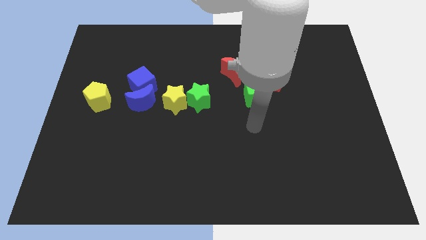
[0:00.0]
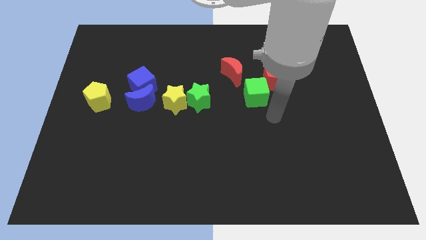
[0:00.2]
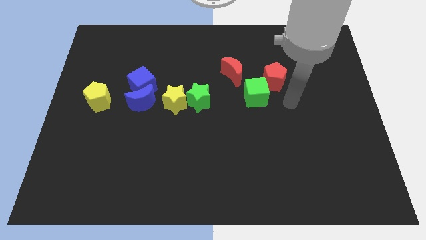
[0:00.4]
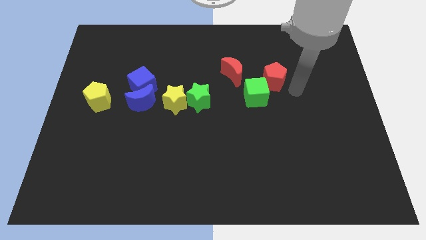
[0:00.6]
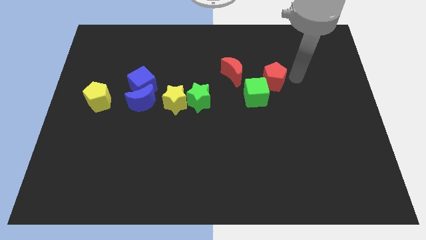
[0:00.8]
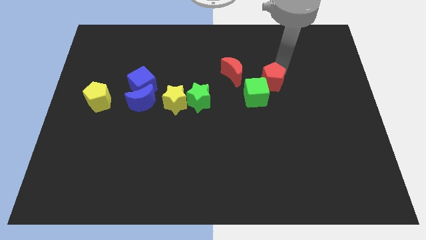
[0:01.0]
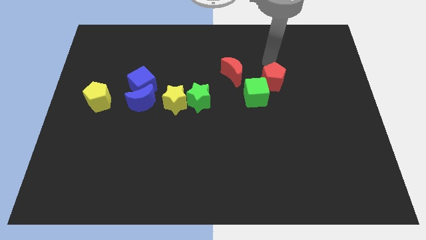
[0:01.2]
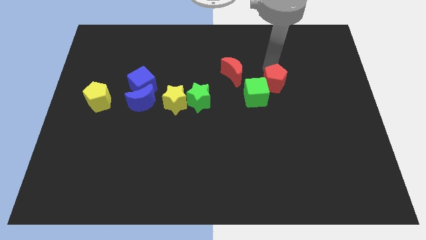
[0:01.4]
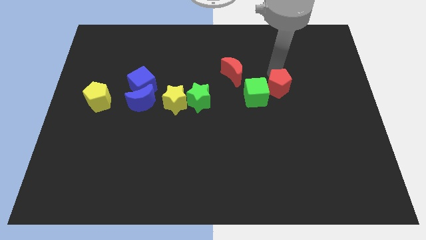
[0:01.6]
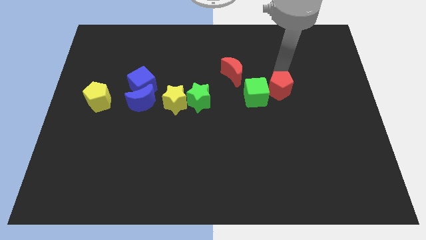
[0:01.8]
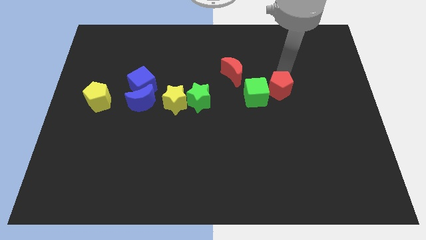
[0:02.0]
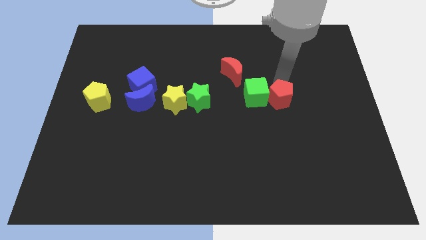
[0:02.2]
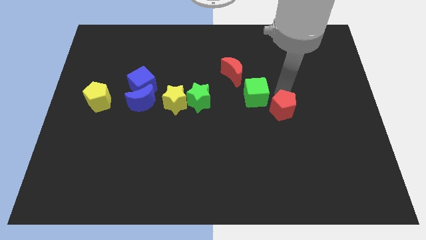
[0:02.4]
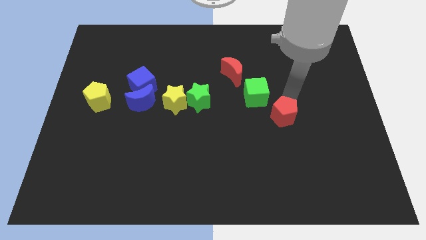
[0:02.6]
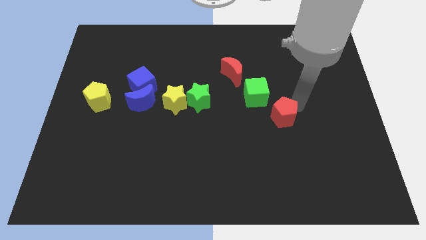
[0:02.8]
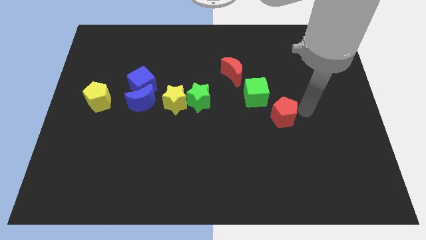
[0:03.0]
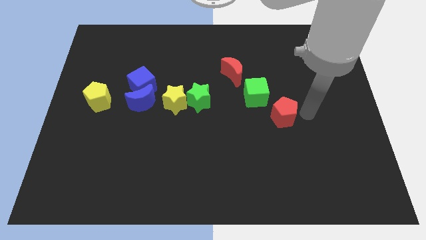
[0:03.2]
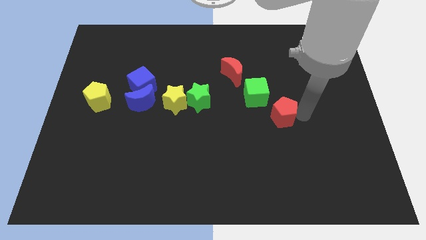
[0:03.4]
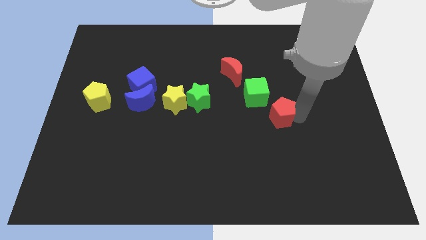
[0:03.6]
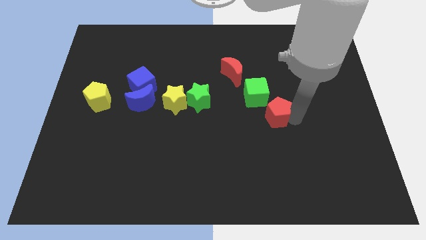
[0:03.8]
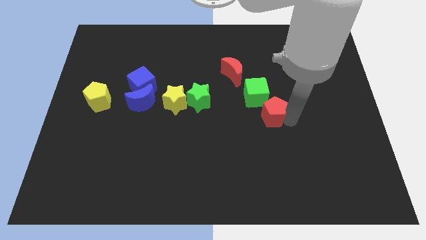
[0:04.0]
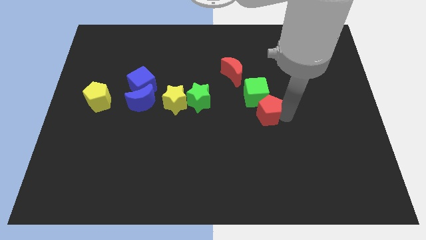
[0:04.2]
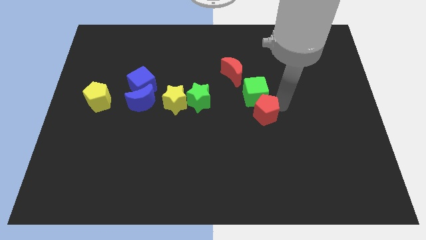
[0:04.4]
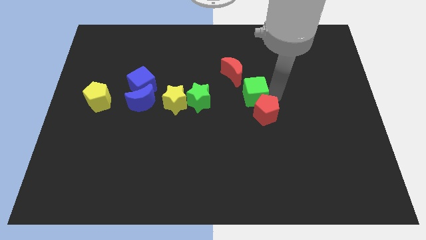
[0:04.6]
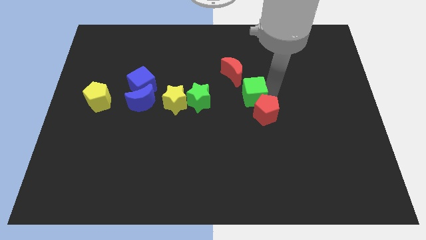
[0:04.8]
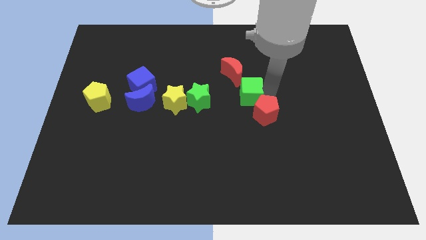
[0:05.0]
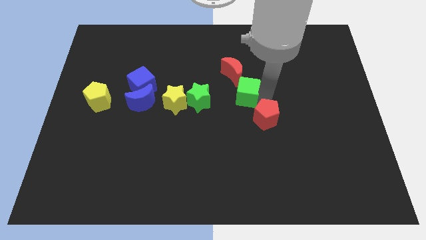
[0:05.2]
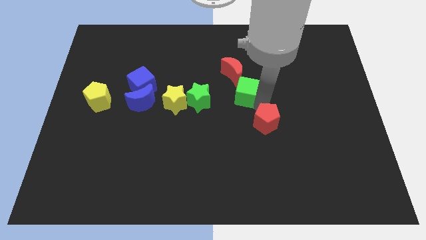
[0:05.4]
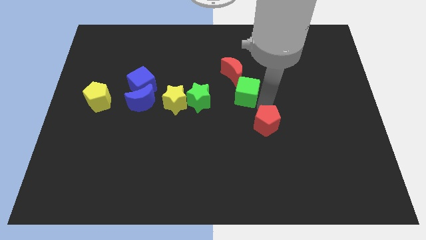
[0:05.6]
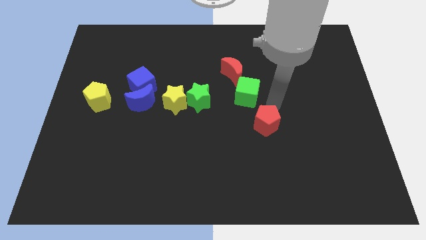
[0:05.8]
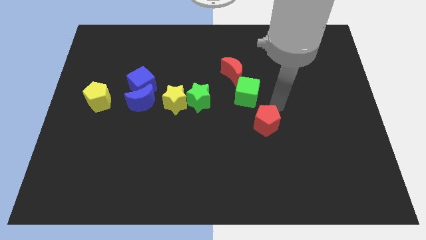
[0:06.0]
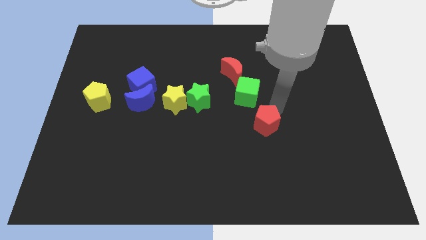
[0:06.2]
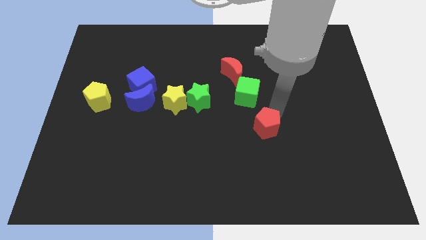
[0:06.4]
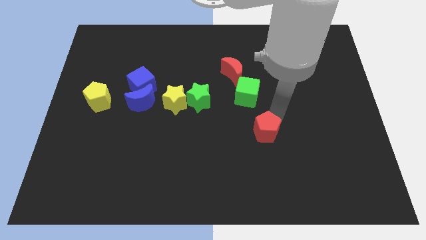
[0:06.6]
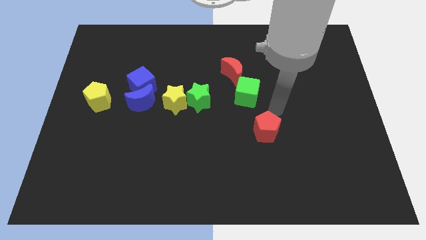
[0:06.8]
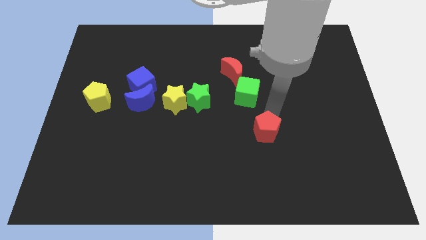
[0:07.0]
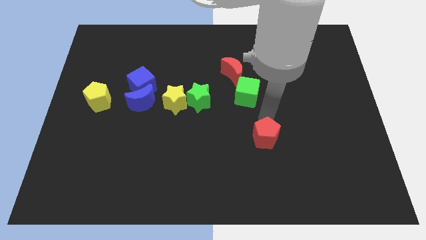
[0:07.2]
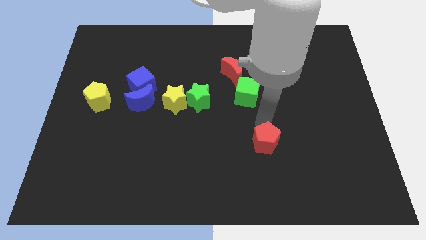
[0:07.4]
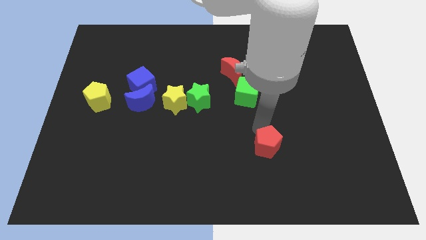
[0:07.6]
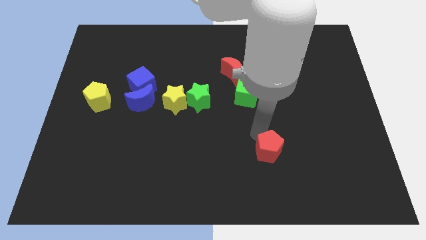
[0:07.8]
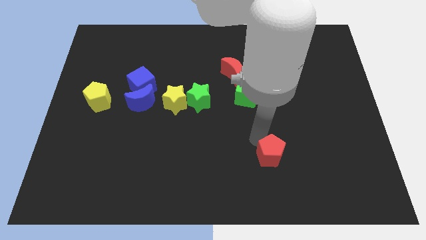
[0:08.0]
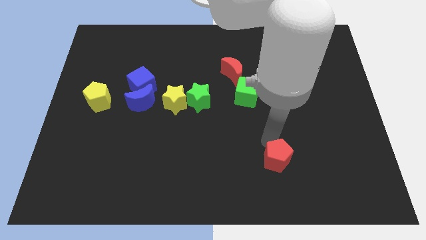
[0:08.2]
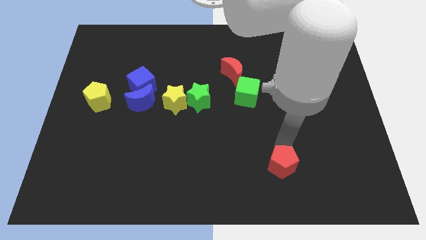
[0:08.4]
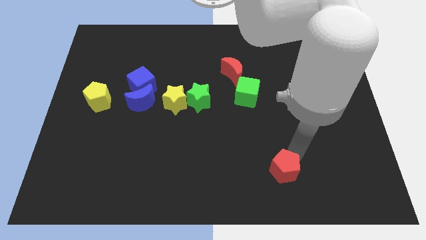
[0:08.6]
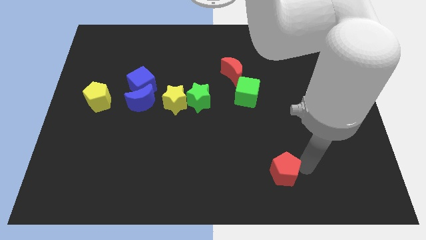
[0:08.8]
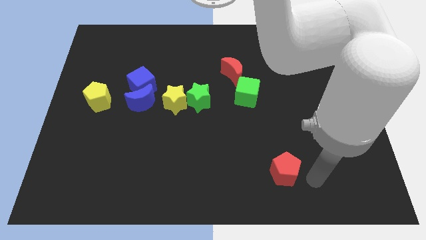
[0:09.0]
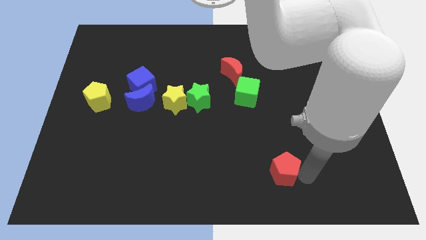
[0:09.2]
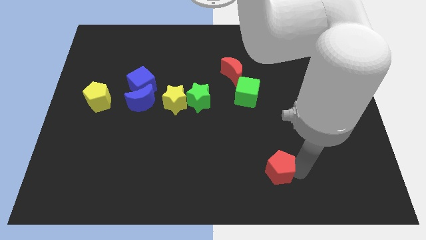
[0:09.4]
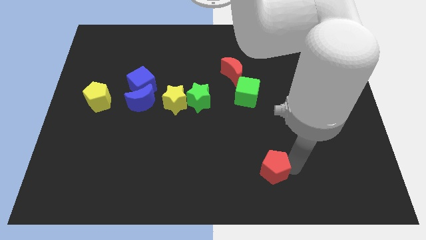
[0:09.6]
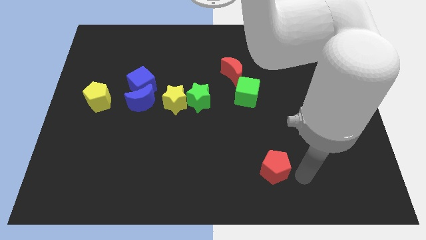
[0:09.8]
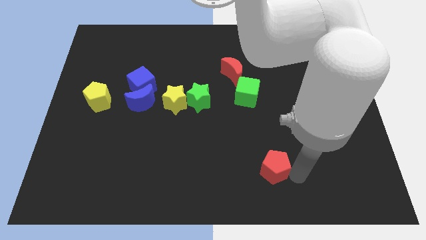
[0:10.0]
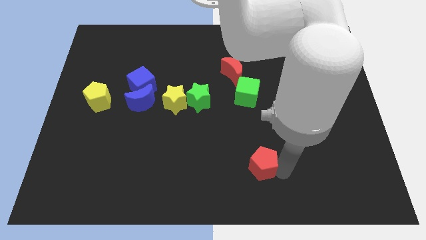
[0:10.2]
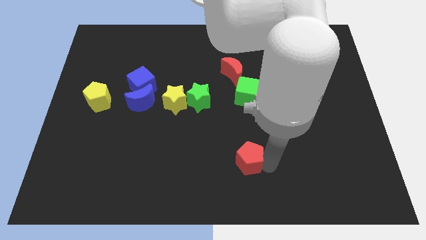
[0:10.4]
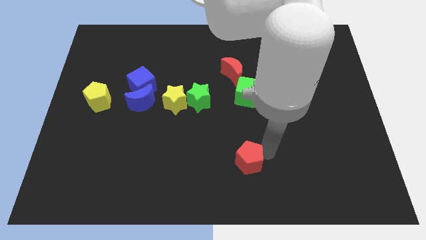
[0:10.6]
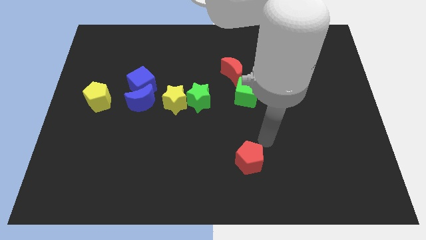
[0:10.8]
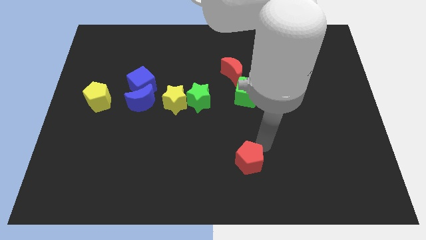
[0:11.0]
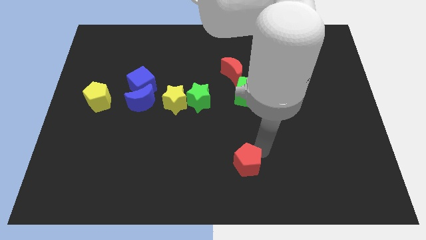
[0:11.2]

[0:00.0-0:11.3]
slide the red pentagon to the bottom side

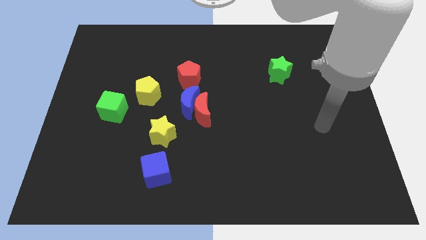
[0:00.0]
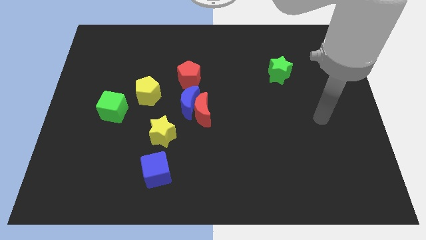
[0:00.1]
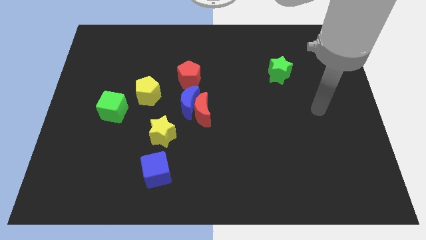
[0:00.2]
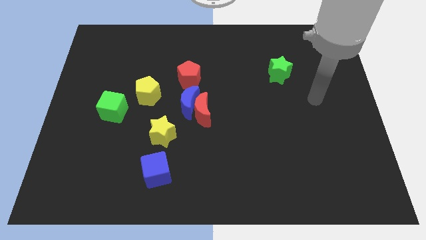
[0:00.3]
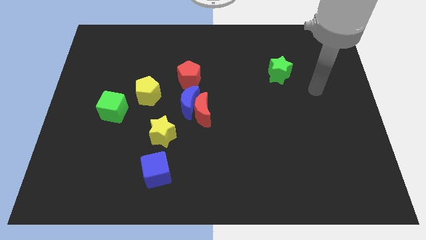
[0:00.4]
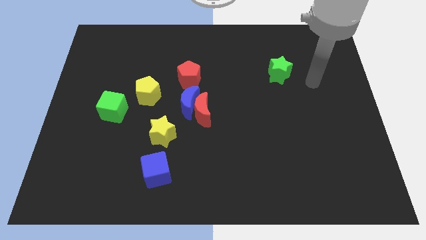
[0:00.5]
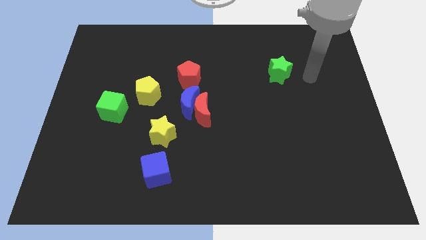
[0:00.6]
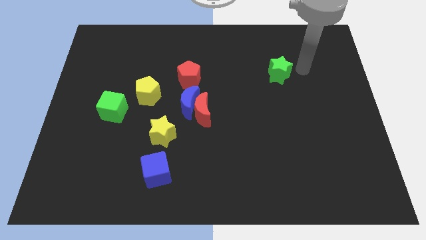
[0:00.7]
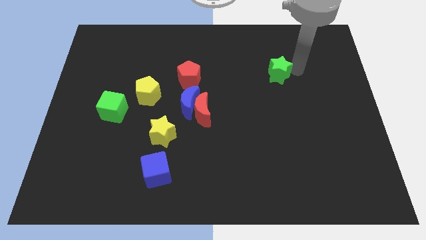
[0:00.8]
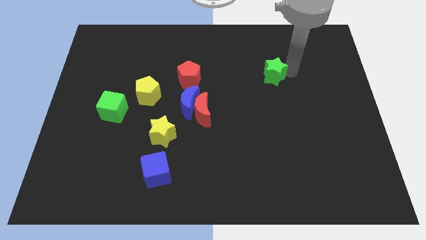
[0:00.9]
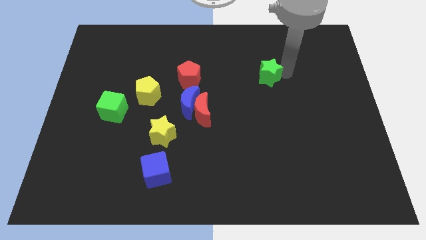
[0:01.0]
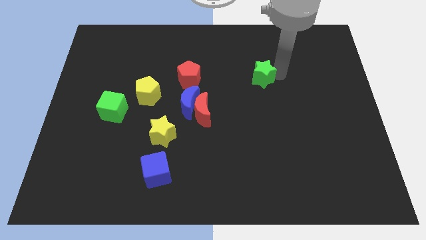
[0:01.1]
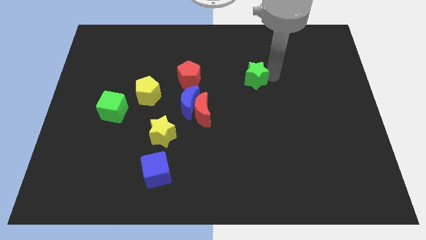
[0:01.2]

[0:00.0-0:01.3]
push the green star to the center of the board
